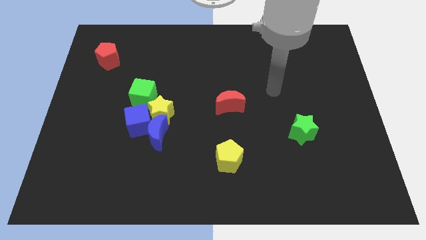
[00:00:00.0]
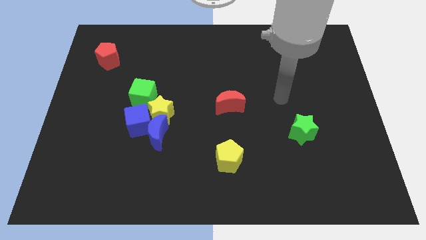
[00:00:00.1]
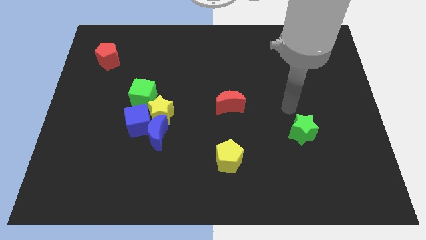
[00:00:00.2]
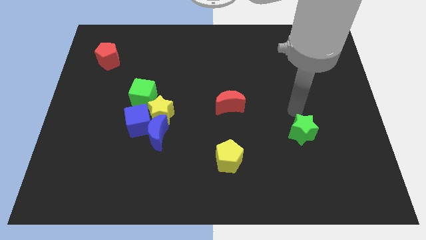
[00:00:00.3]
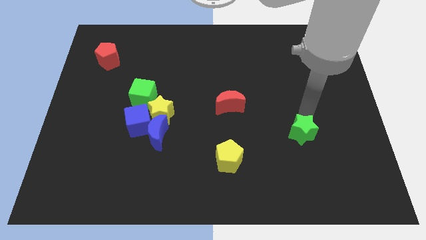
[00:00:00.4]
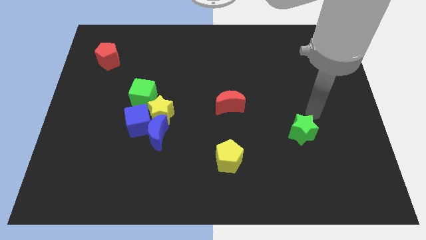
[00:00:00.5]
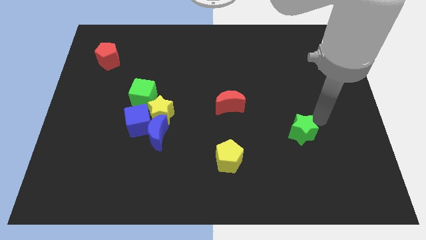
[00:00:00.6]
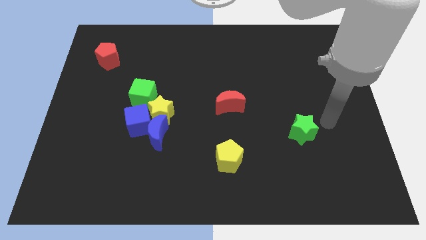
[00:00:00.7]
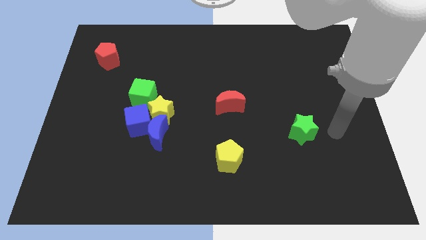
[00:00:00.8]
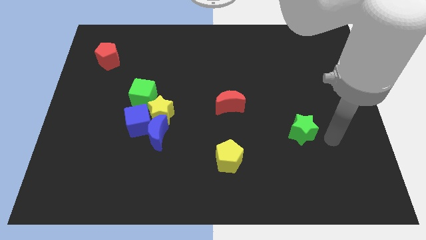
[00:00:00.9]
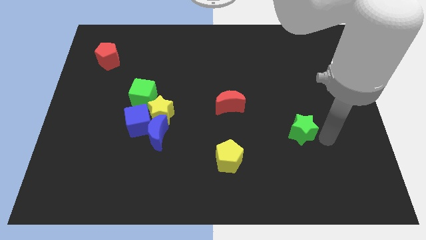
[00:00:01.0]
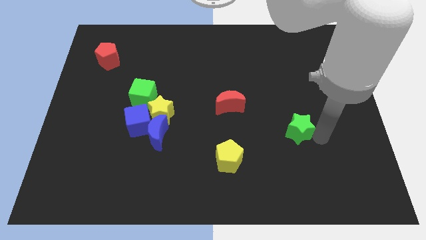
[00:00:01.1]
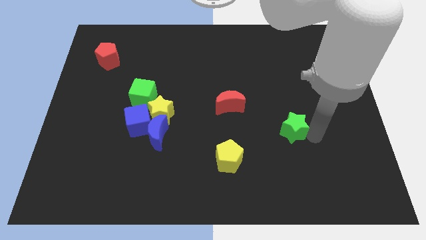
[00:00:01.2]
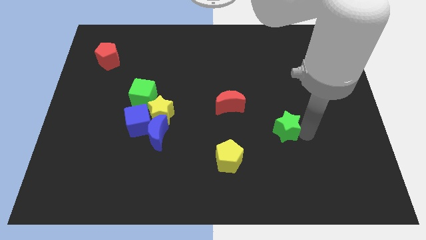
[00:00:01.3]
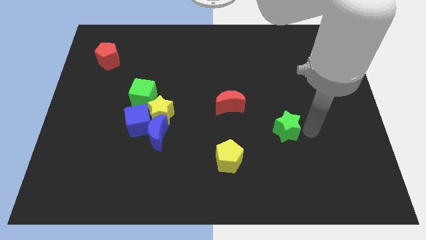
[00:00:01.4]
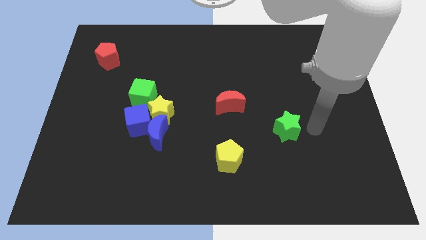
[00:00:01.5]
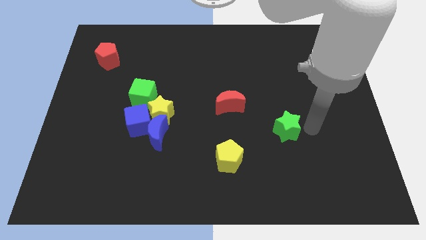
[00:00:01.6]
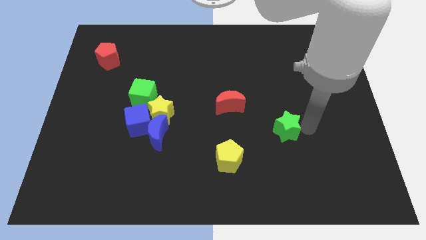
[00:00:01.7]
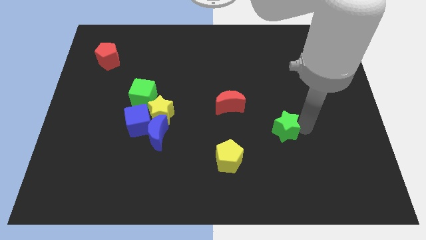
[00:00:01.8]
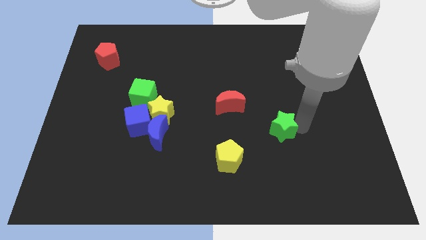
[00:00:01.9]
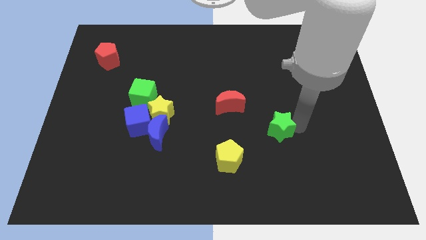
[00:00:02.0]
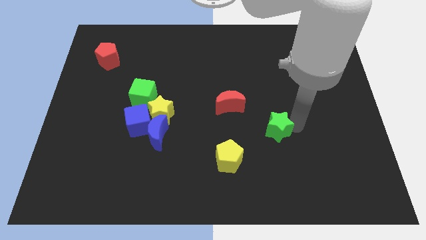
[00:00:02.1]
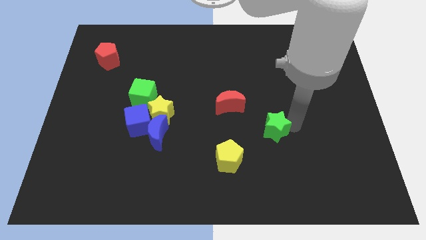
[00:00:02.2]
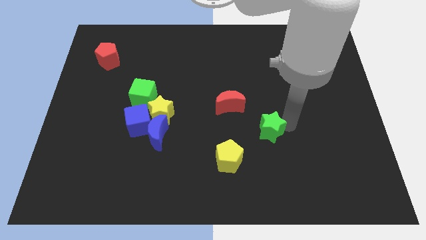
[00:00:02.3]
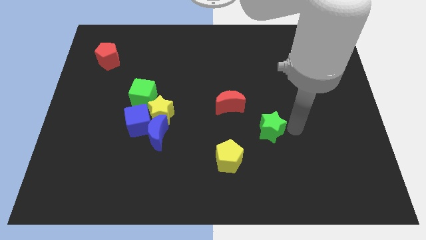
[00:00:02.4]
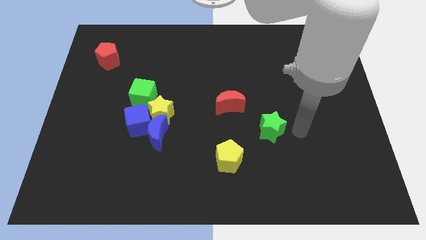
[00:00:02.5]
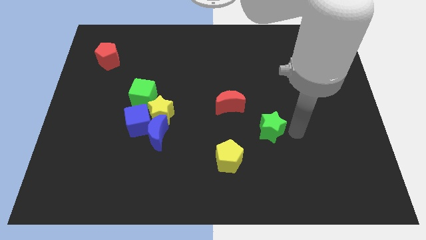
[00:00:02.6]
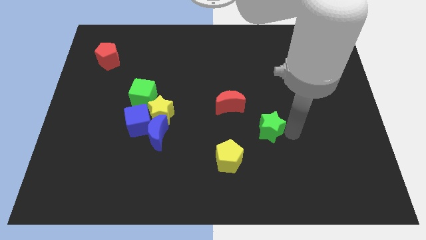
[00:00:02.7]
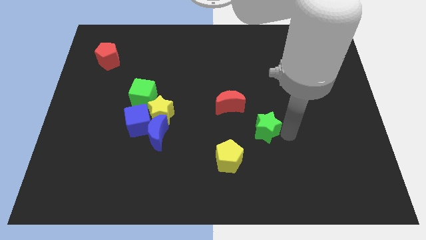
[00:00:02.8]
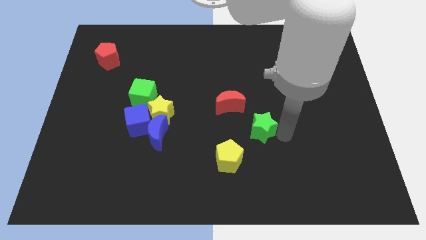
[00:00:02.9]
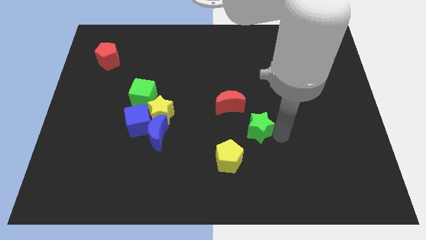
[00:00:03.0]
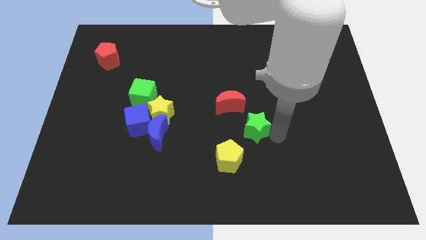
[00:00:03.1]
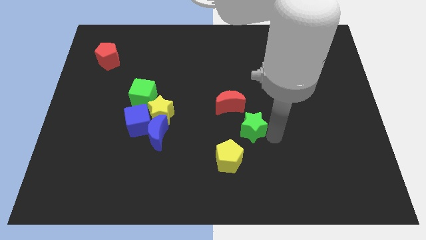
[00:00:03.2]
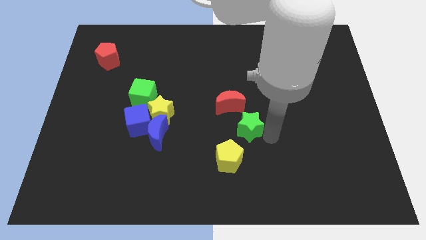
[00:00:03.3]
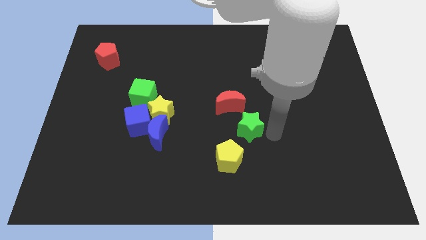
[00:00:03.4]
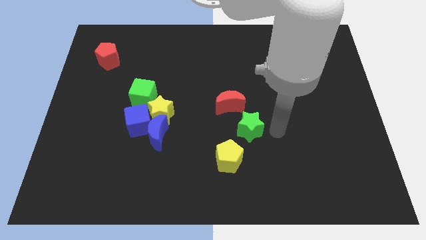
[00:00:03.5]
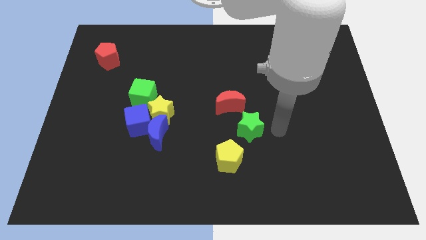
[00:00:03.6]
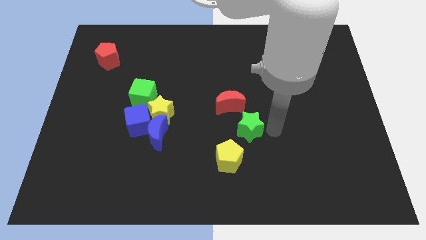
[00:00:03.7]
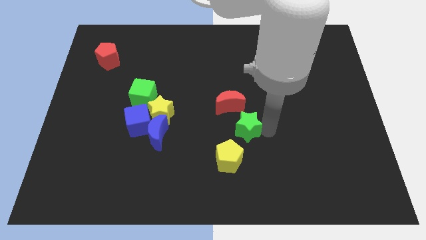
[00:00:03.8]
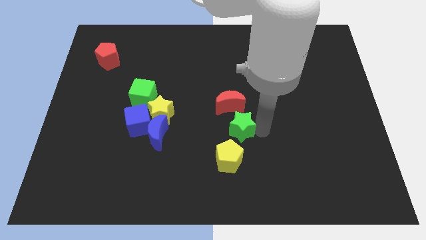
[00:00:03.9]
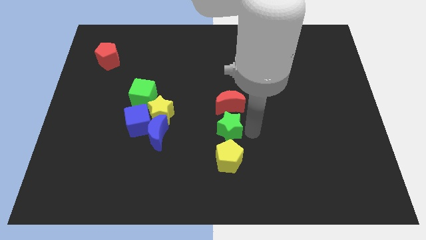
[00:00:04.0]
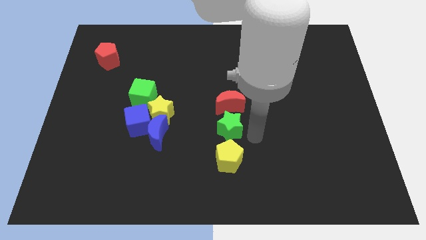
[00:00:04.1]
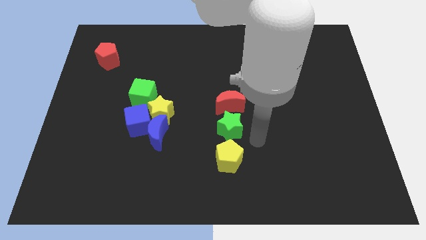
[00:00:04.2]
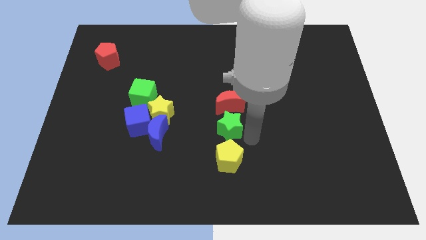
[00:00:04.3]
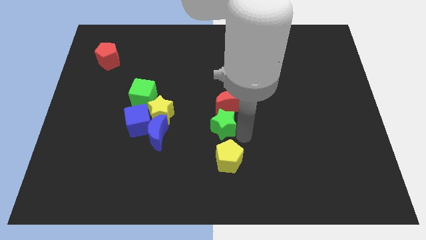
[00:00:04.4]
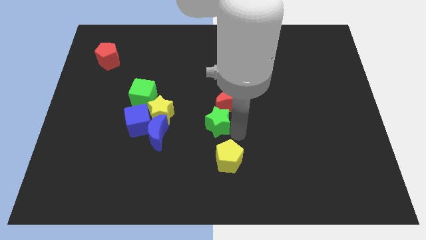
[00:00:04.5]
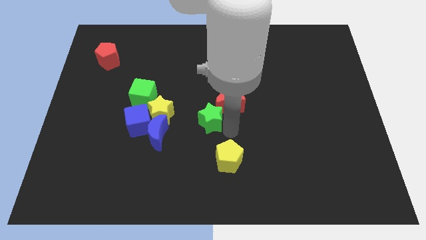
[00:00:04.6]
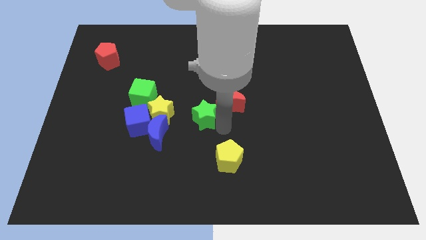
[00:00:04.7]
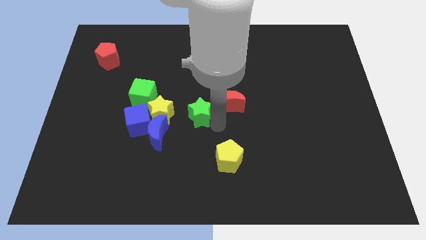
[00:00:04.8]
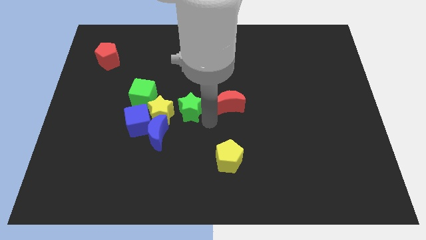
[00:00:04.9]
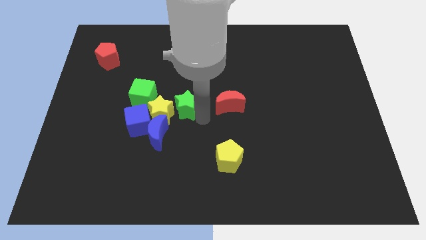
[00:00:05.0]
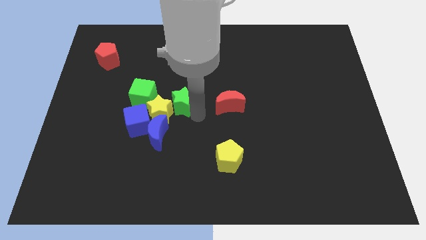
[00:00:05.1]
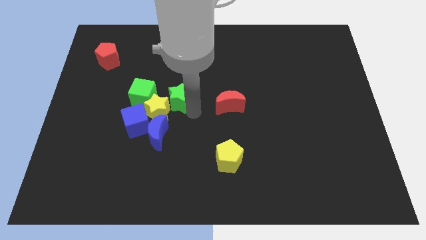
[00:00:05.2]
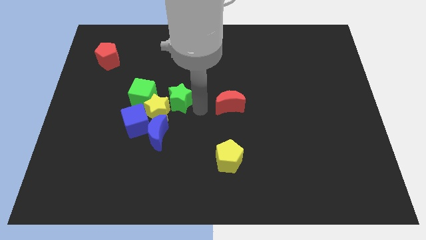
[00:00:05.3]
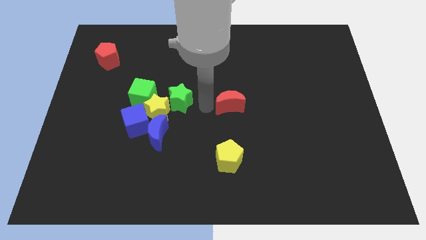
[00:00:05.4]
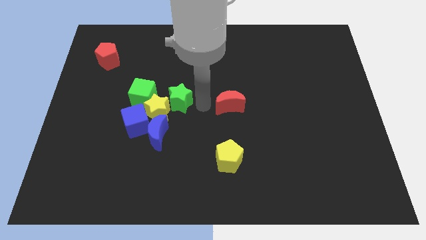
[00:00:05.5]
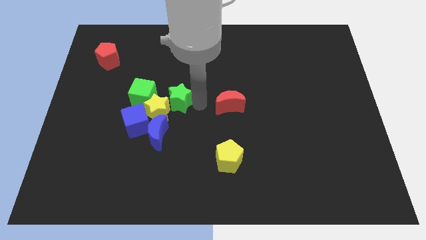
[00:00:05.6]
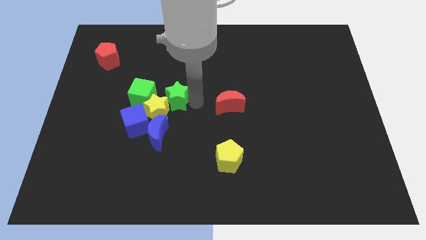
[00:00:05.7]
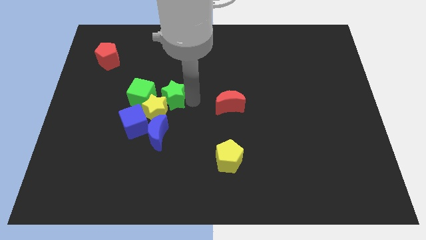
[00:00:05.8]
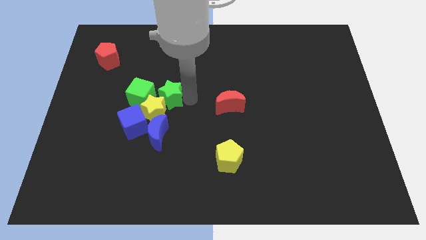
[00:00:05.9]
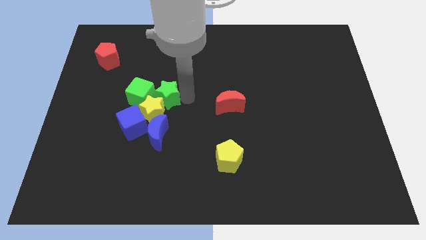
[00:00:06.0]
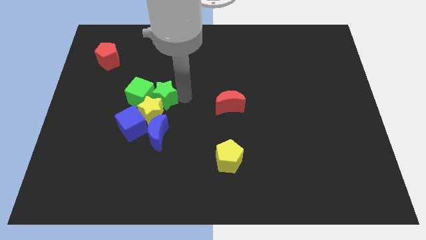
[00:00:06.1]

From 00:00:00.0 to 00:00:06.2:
slide the green star close to the green cube

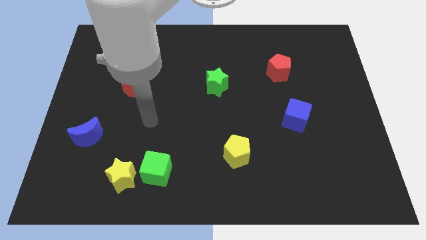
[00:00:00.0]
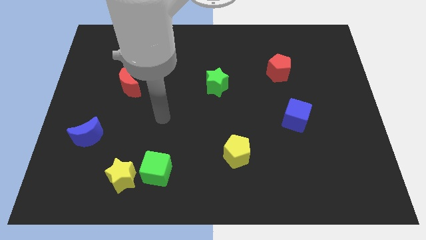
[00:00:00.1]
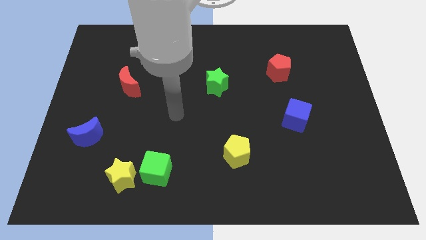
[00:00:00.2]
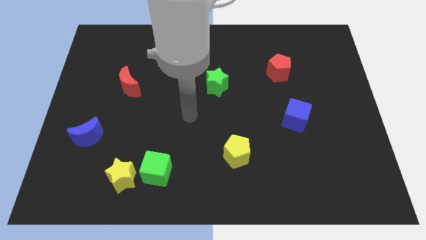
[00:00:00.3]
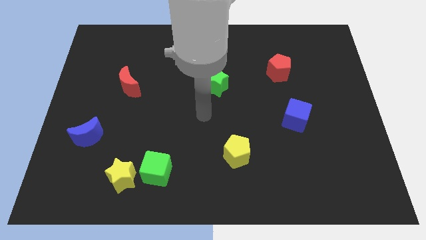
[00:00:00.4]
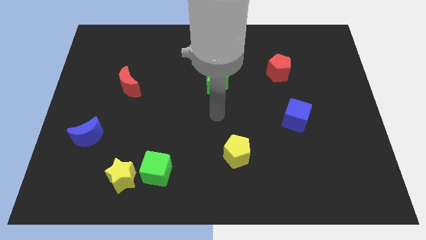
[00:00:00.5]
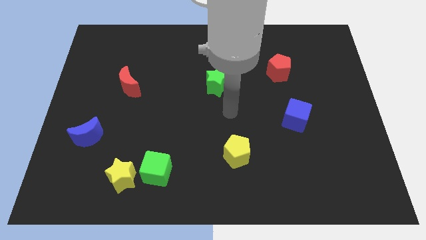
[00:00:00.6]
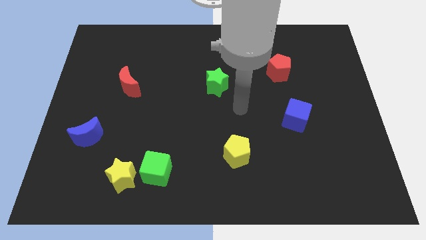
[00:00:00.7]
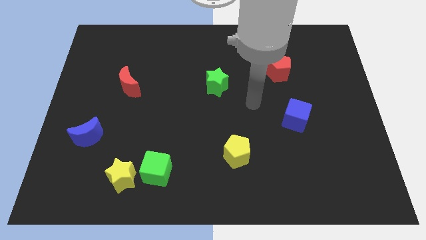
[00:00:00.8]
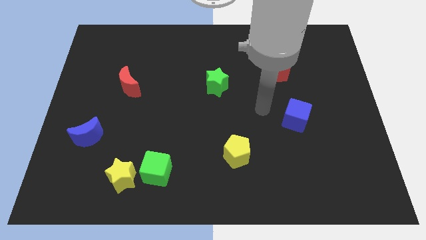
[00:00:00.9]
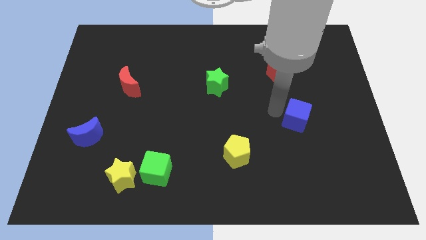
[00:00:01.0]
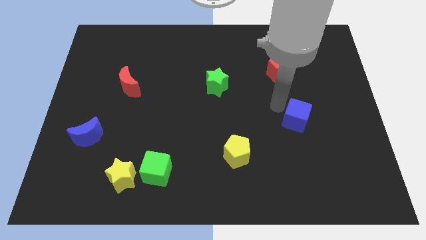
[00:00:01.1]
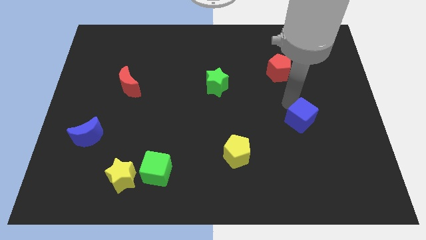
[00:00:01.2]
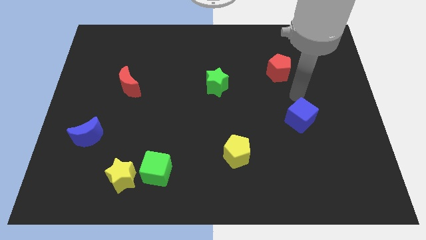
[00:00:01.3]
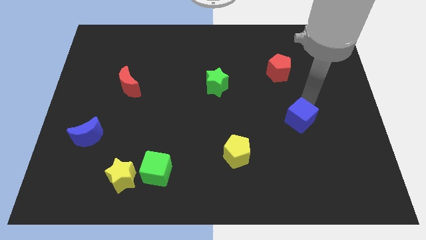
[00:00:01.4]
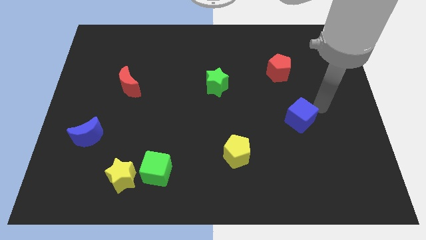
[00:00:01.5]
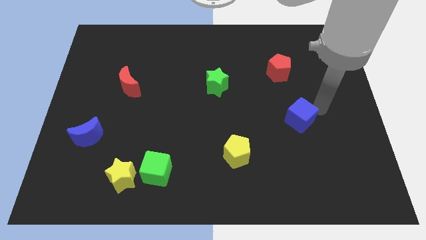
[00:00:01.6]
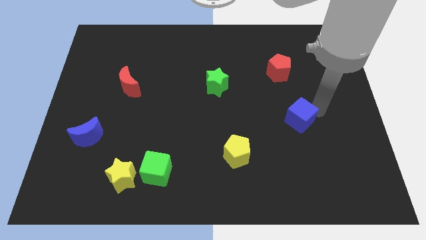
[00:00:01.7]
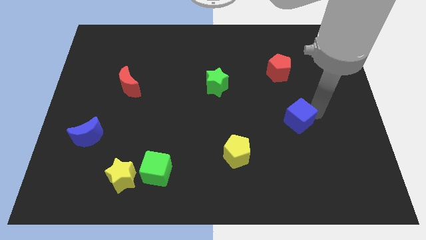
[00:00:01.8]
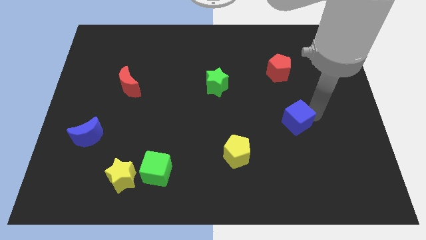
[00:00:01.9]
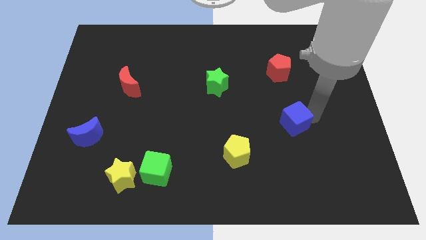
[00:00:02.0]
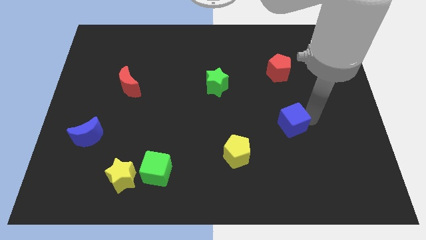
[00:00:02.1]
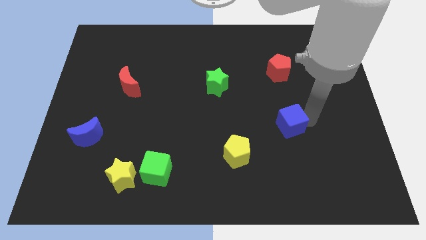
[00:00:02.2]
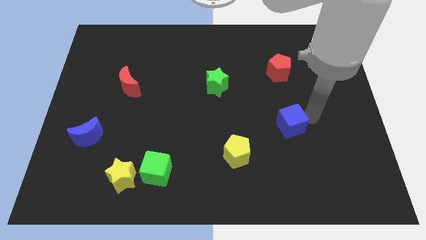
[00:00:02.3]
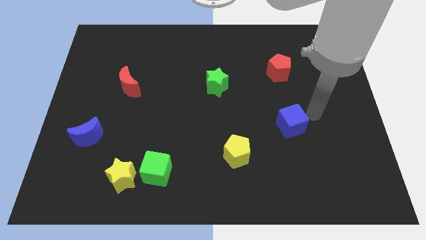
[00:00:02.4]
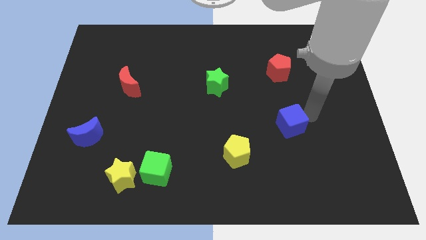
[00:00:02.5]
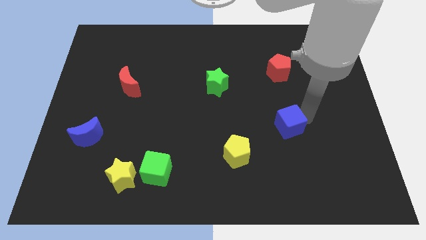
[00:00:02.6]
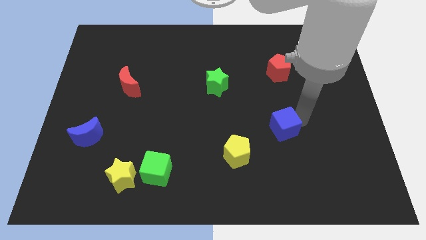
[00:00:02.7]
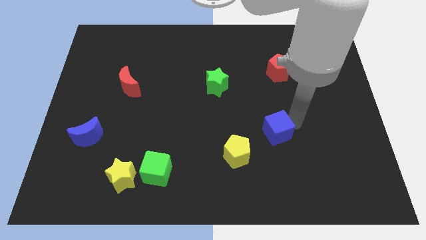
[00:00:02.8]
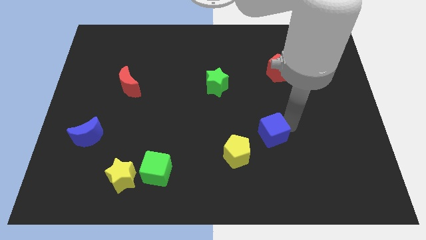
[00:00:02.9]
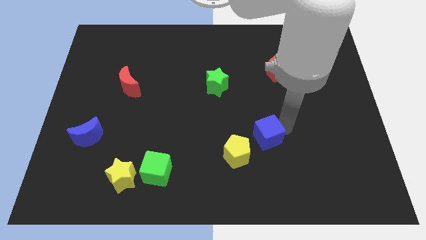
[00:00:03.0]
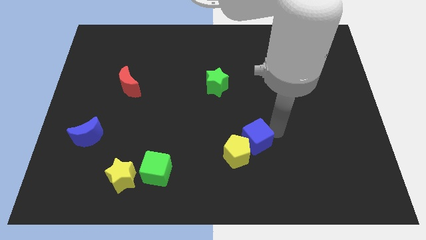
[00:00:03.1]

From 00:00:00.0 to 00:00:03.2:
put the blue cube next to the yellow pentagon
